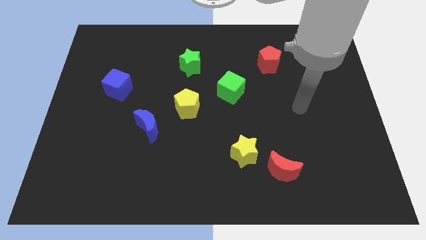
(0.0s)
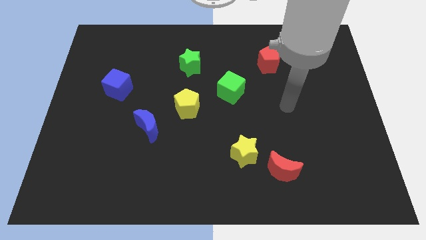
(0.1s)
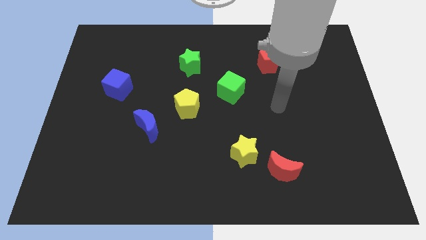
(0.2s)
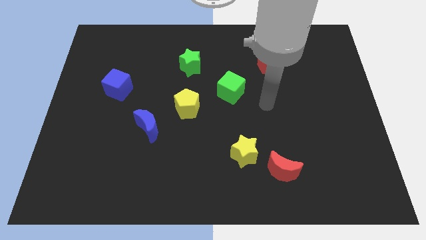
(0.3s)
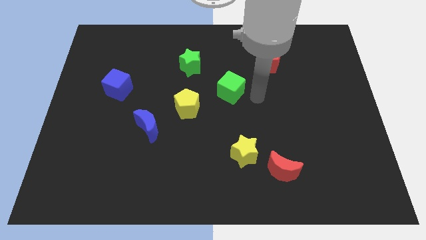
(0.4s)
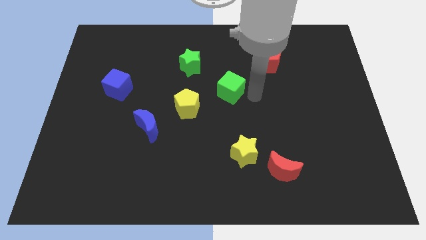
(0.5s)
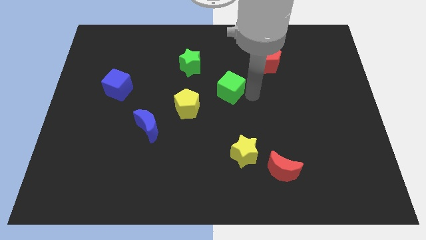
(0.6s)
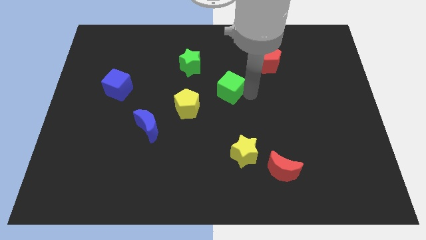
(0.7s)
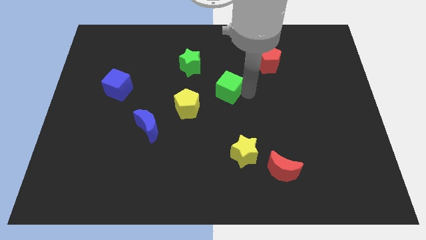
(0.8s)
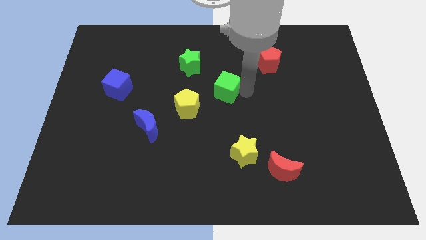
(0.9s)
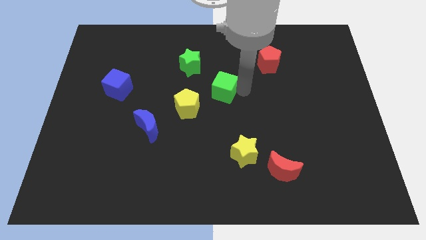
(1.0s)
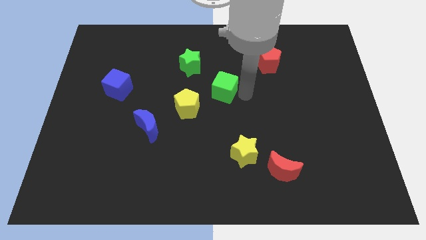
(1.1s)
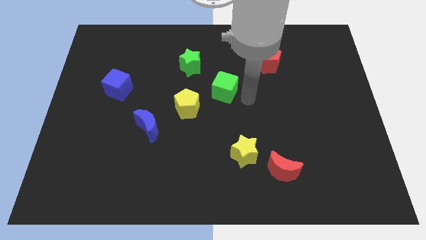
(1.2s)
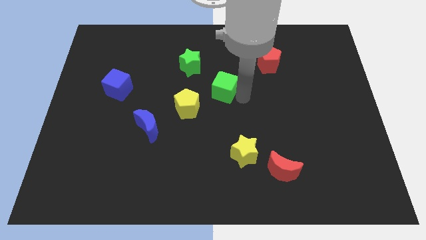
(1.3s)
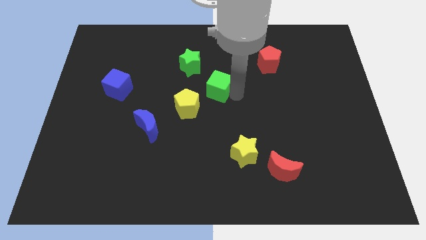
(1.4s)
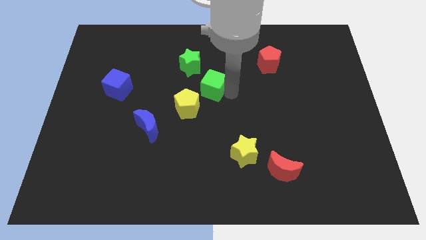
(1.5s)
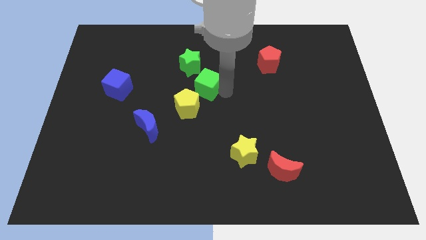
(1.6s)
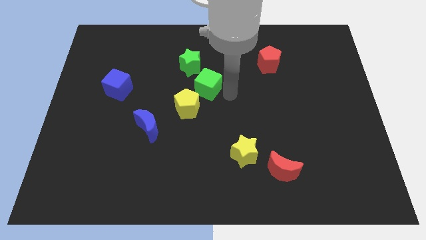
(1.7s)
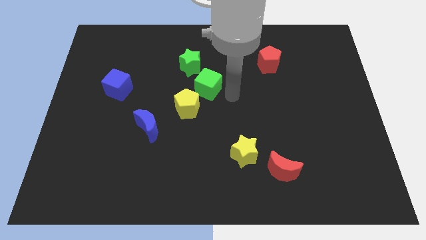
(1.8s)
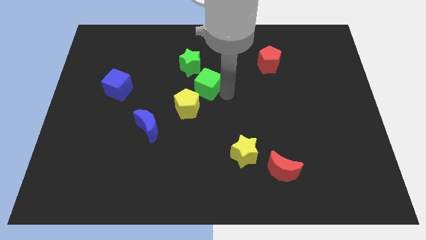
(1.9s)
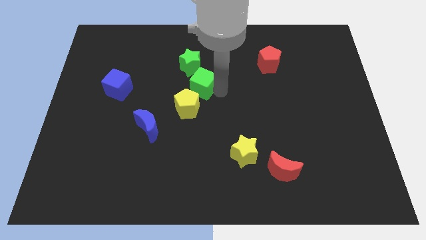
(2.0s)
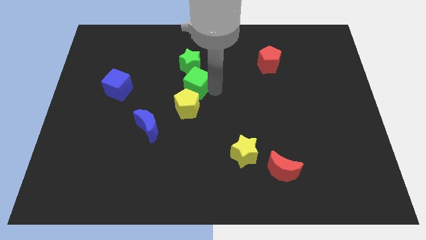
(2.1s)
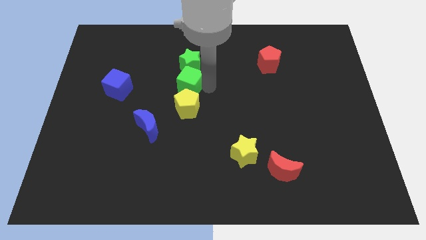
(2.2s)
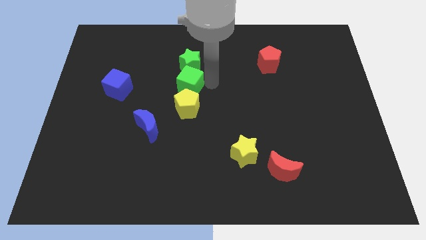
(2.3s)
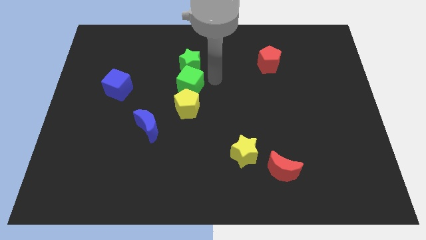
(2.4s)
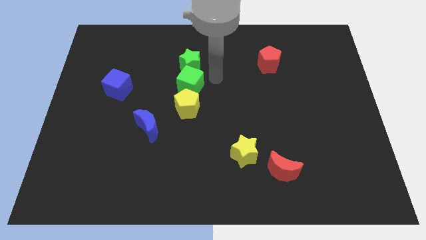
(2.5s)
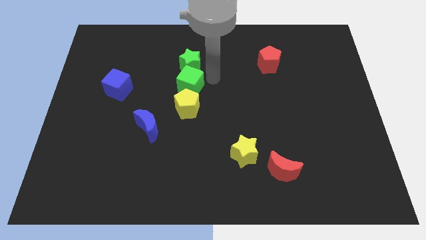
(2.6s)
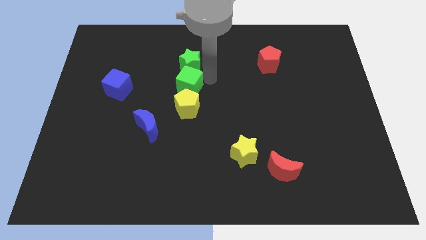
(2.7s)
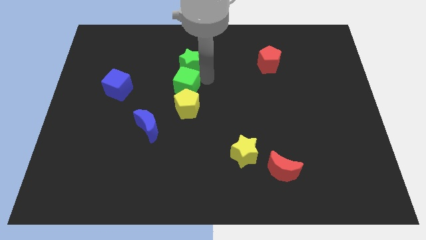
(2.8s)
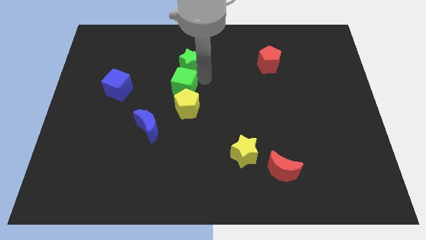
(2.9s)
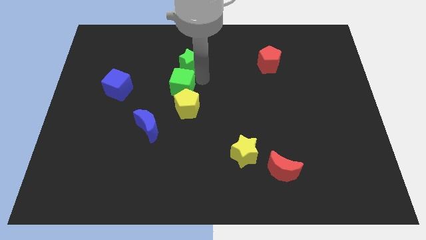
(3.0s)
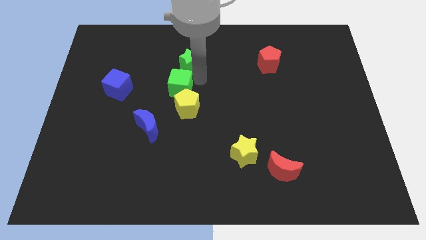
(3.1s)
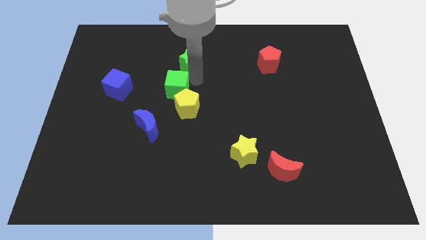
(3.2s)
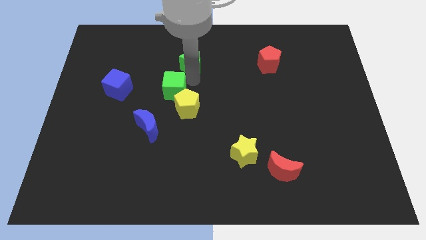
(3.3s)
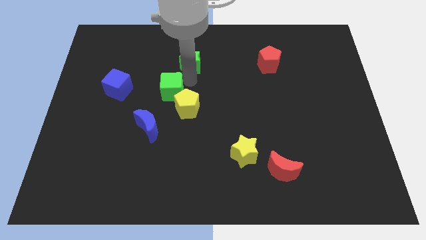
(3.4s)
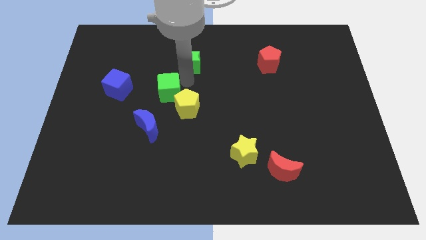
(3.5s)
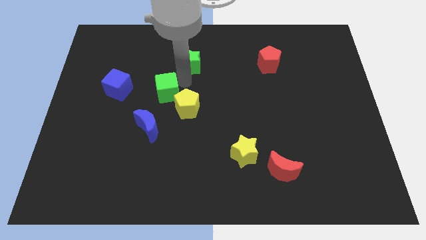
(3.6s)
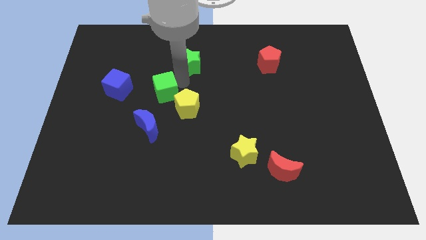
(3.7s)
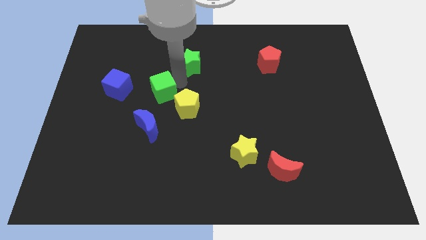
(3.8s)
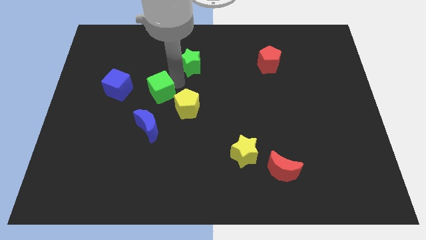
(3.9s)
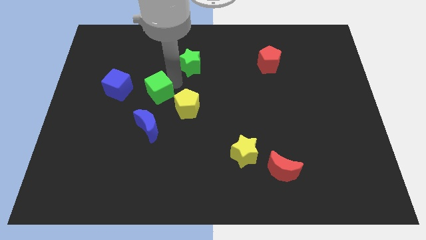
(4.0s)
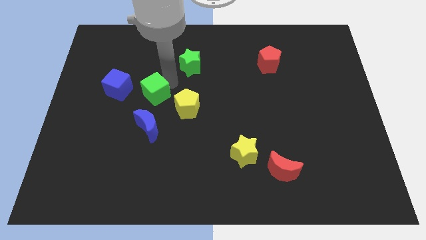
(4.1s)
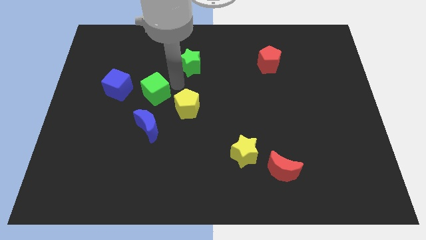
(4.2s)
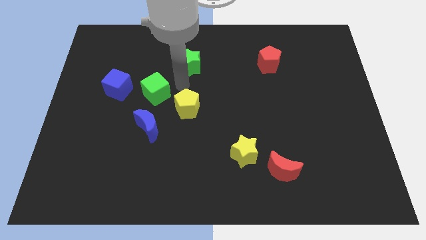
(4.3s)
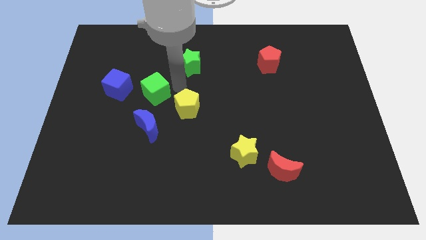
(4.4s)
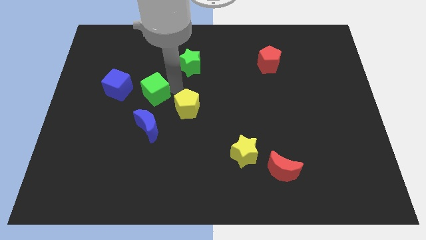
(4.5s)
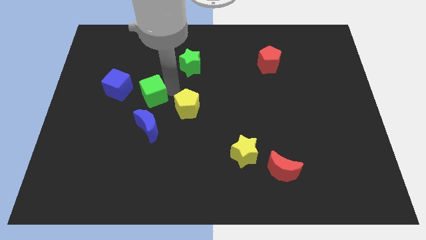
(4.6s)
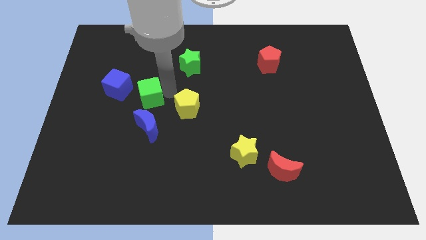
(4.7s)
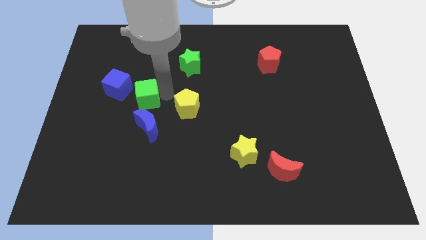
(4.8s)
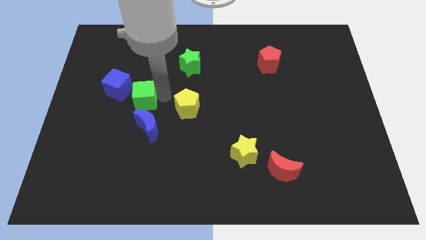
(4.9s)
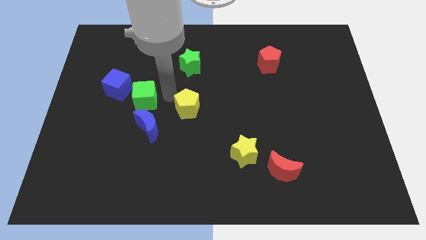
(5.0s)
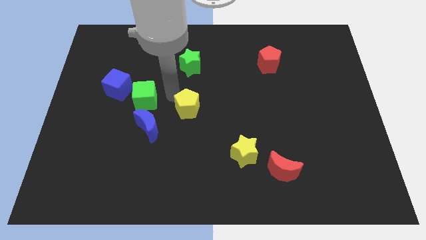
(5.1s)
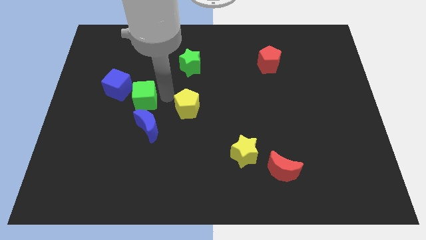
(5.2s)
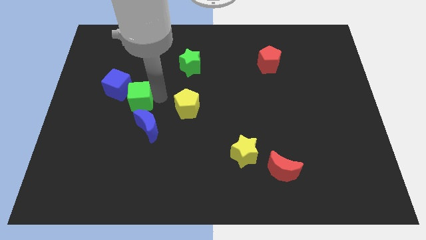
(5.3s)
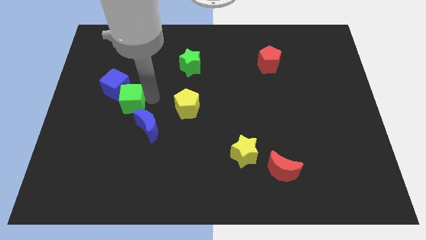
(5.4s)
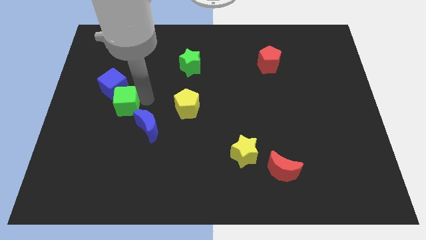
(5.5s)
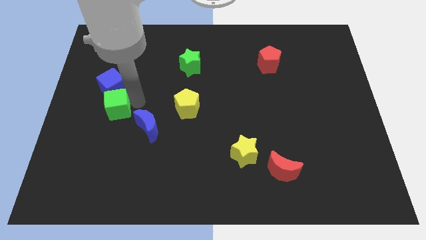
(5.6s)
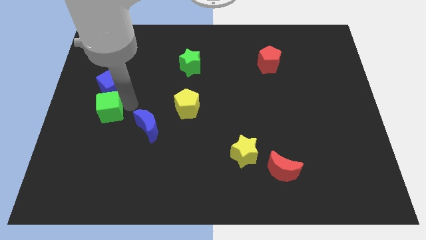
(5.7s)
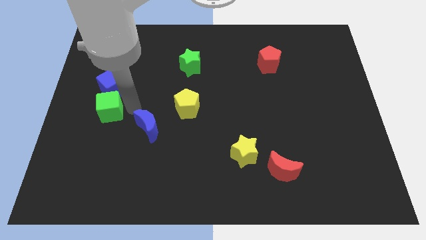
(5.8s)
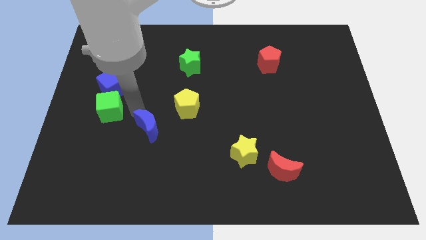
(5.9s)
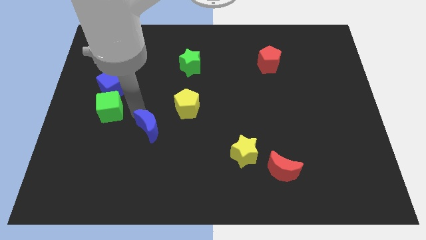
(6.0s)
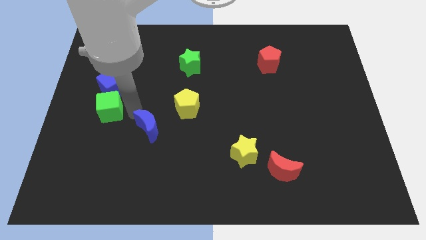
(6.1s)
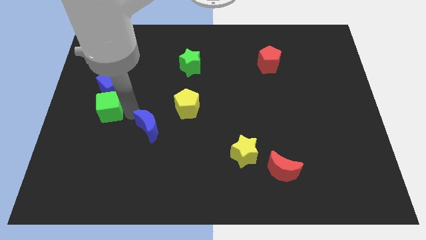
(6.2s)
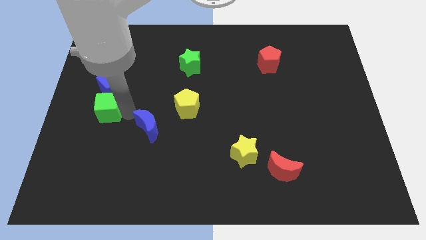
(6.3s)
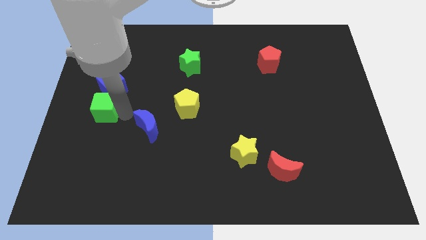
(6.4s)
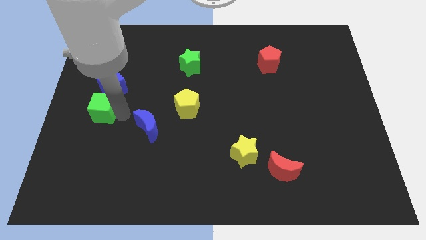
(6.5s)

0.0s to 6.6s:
move the green cube to the left side
